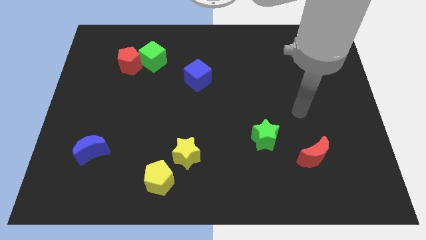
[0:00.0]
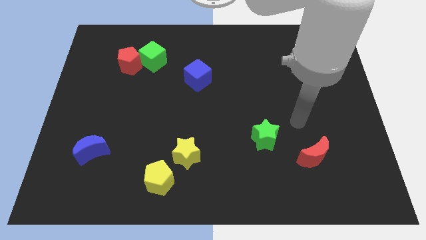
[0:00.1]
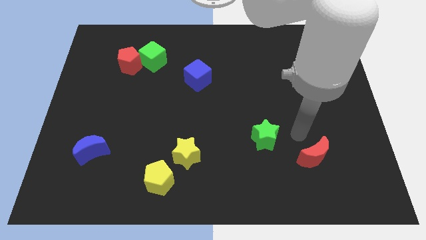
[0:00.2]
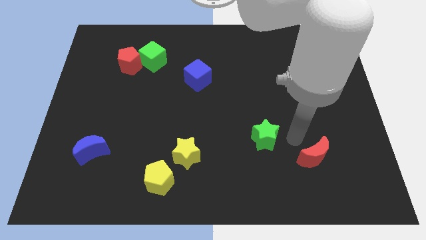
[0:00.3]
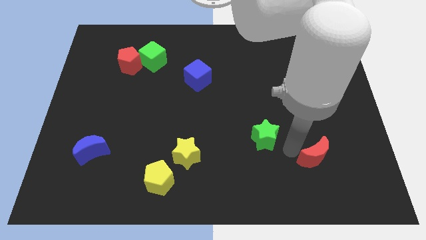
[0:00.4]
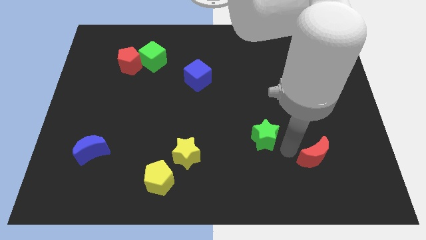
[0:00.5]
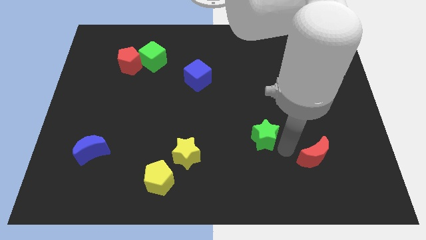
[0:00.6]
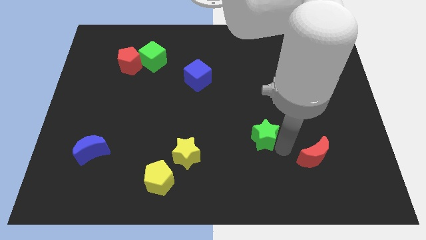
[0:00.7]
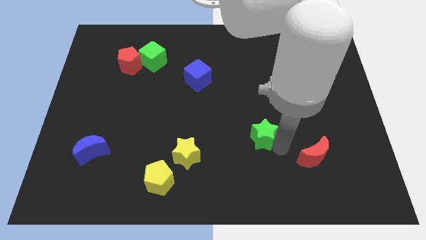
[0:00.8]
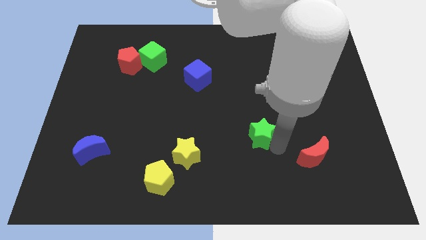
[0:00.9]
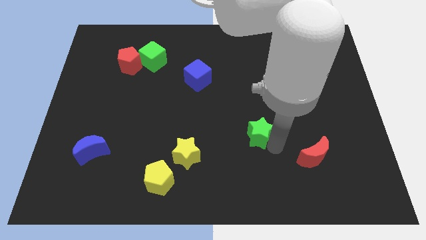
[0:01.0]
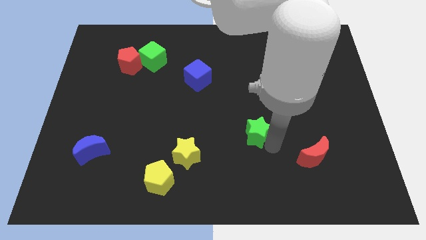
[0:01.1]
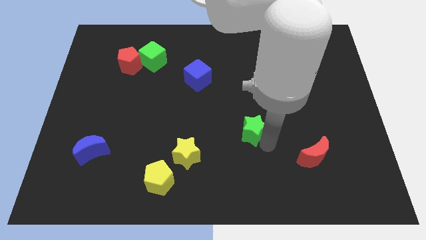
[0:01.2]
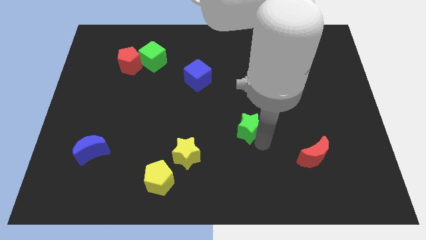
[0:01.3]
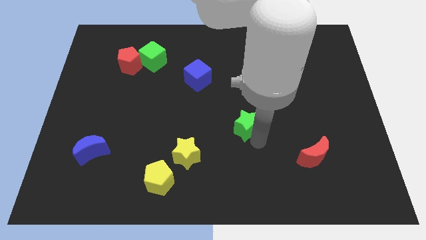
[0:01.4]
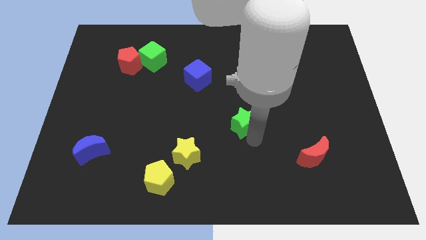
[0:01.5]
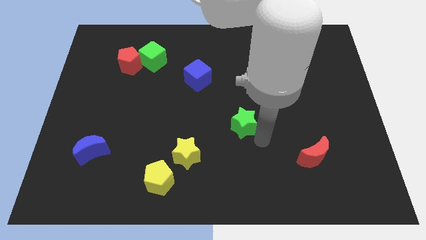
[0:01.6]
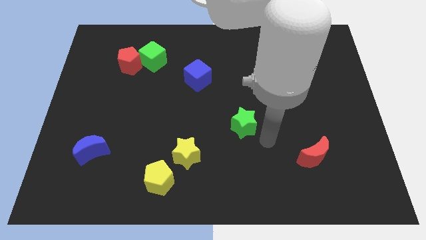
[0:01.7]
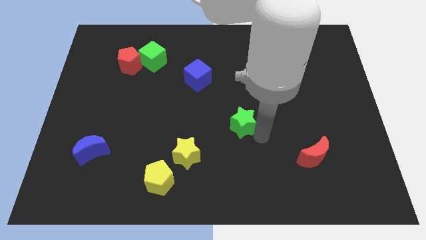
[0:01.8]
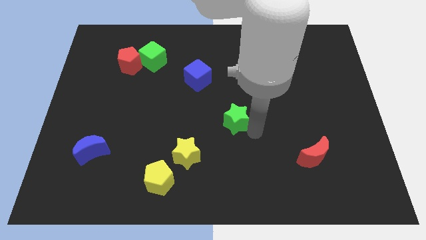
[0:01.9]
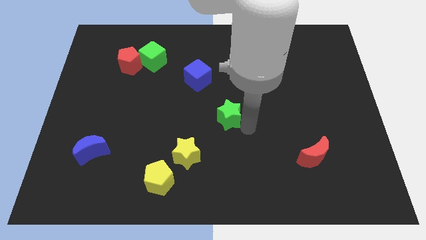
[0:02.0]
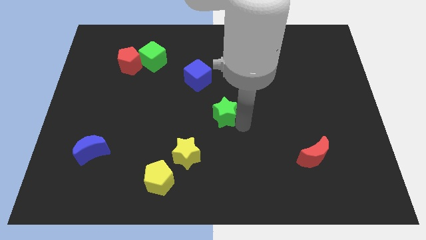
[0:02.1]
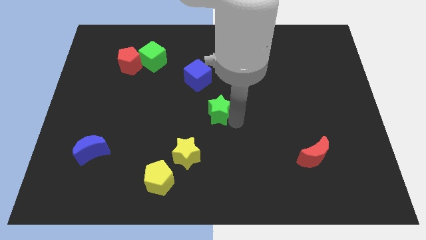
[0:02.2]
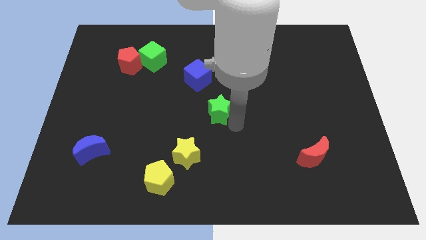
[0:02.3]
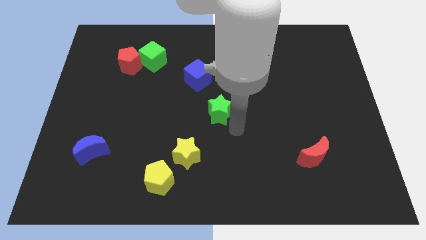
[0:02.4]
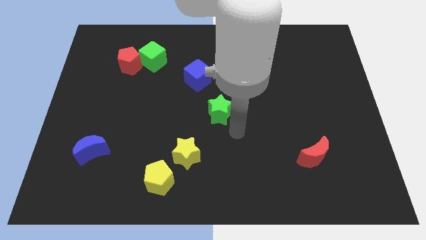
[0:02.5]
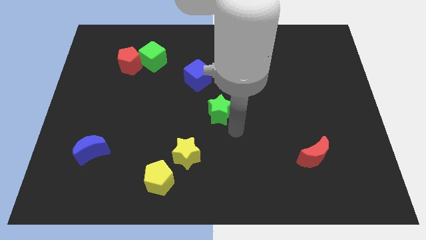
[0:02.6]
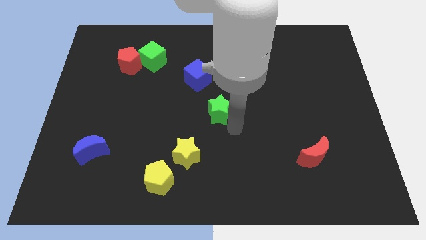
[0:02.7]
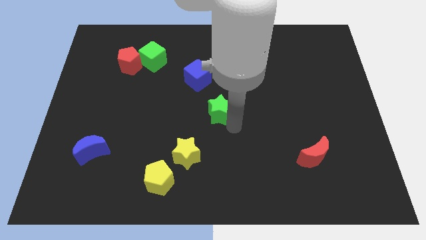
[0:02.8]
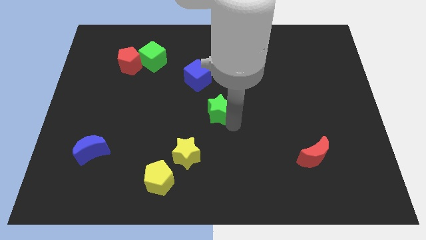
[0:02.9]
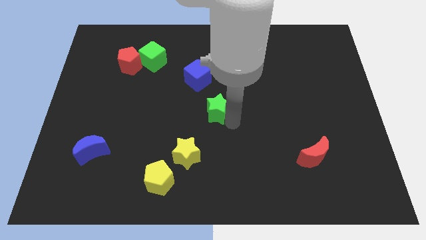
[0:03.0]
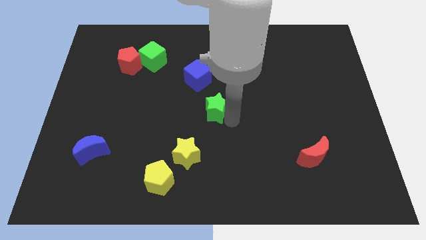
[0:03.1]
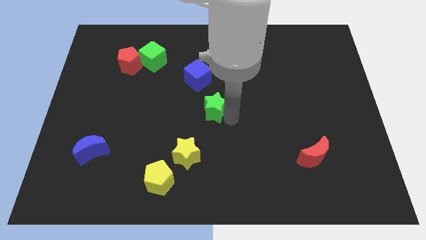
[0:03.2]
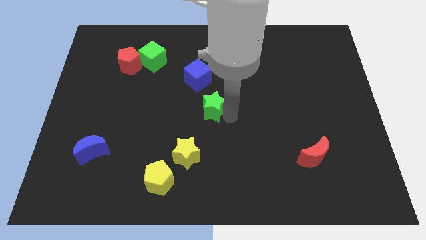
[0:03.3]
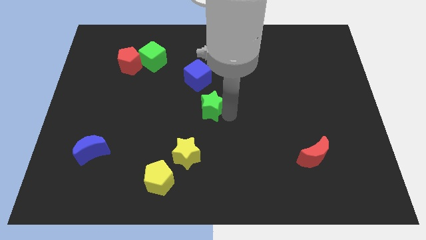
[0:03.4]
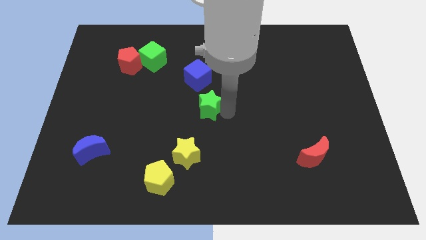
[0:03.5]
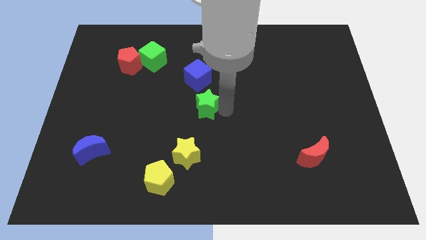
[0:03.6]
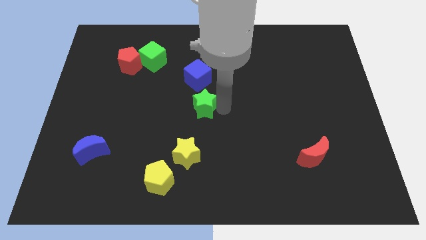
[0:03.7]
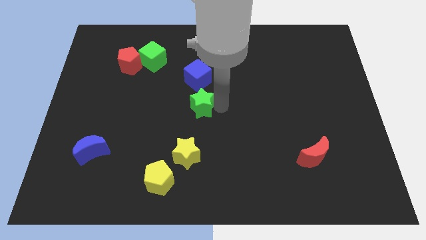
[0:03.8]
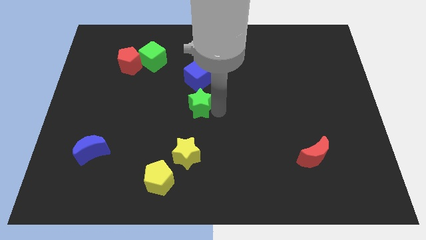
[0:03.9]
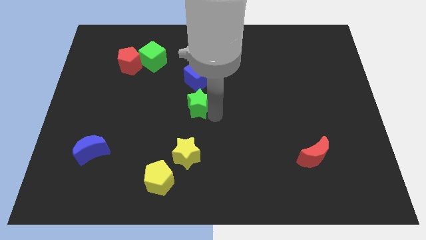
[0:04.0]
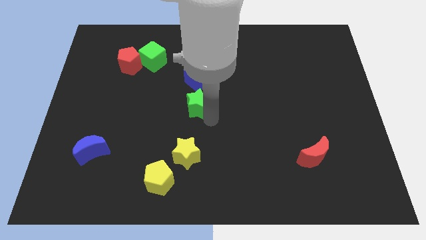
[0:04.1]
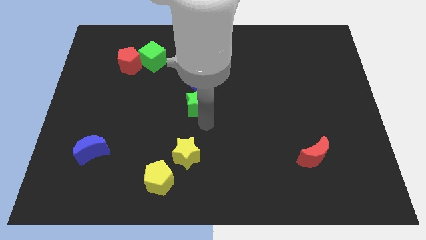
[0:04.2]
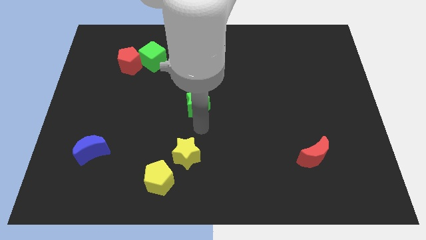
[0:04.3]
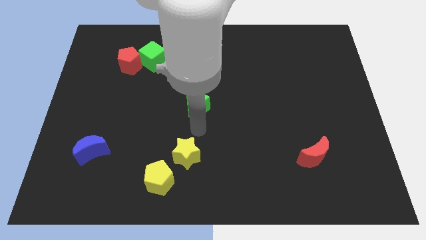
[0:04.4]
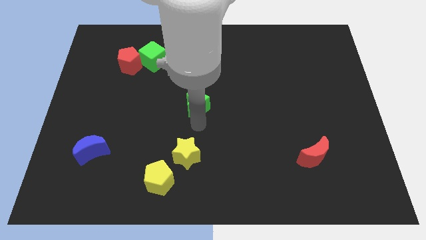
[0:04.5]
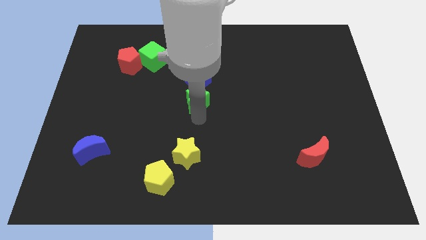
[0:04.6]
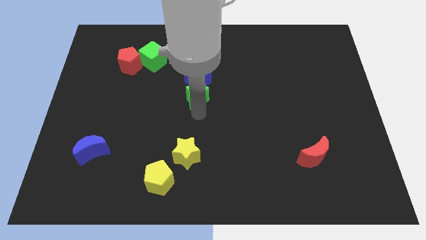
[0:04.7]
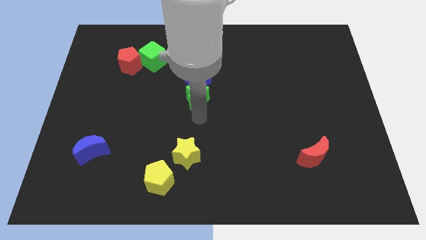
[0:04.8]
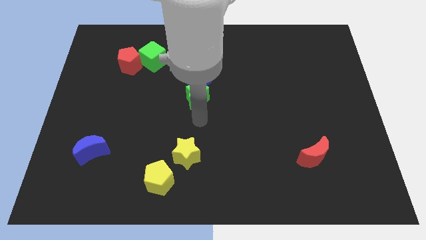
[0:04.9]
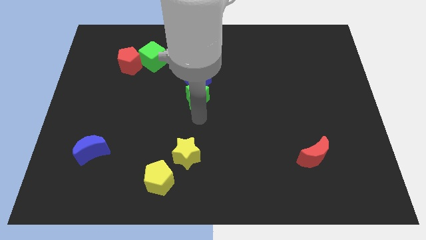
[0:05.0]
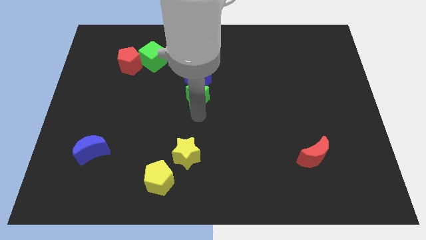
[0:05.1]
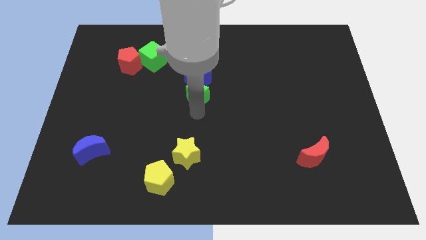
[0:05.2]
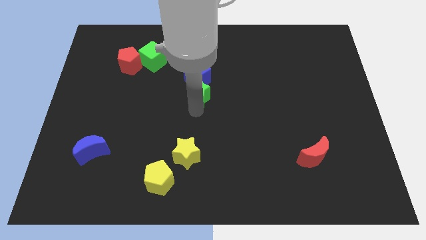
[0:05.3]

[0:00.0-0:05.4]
put the green star next to the blue cube

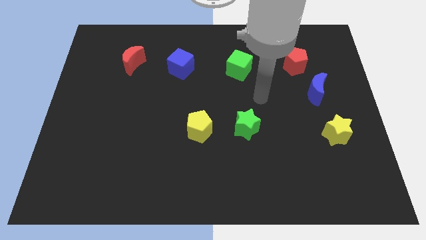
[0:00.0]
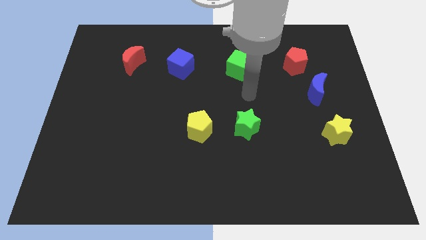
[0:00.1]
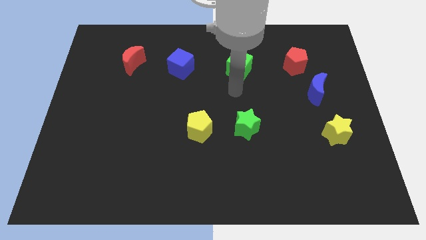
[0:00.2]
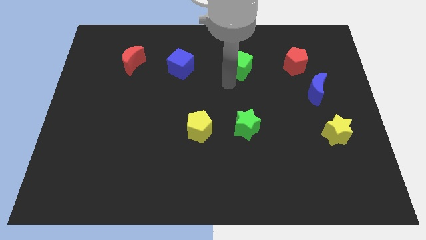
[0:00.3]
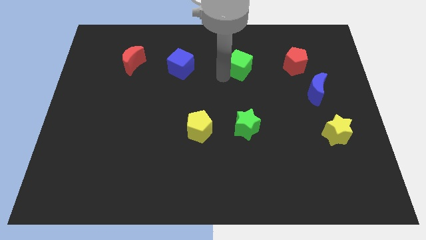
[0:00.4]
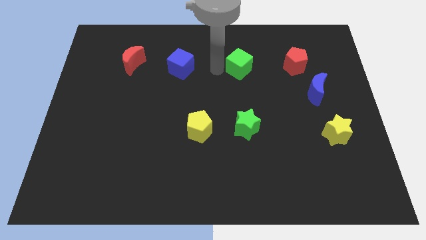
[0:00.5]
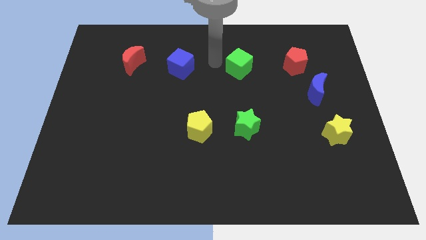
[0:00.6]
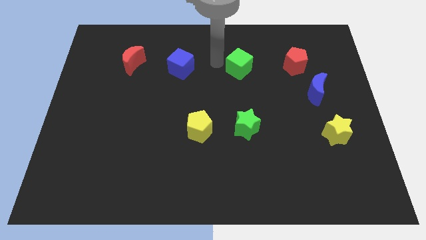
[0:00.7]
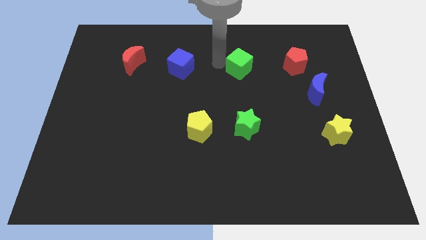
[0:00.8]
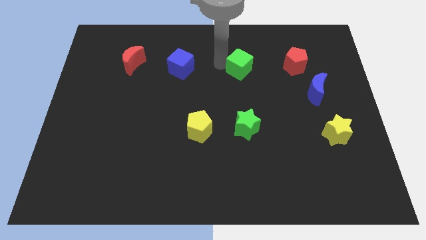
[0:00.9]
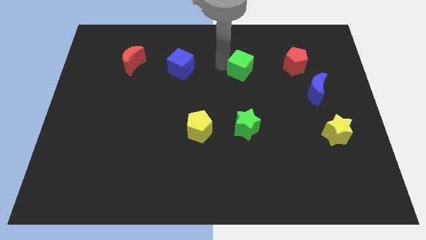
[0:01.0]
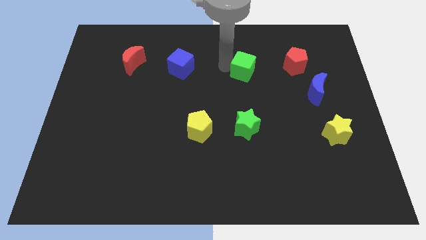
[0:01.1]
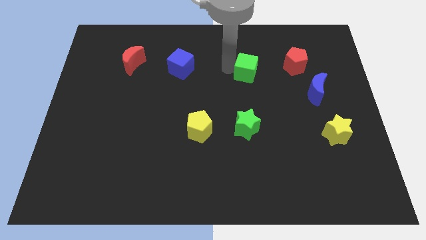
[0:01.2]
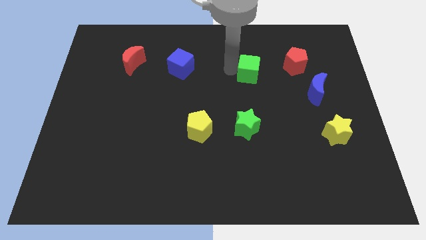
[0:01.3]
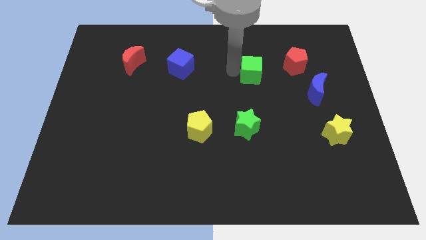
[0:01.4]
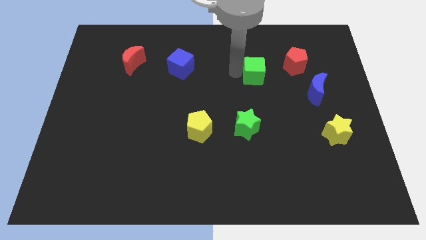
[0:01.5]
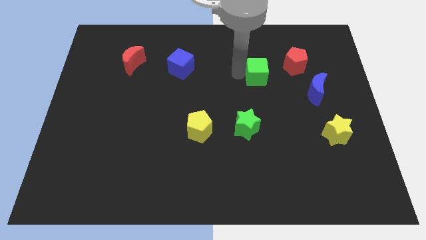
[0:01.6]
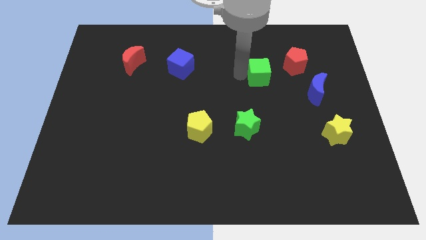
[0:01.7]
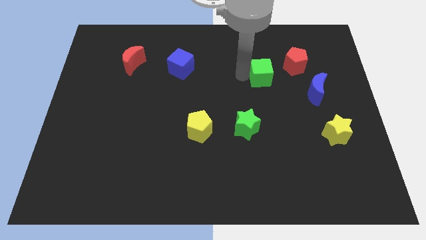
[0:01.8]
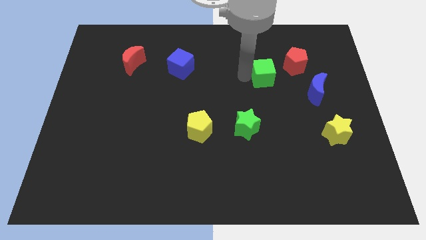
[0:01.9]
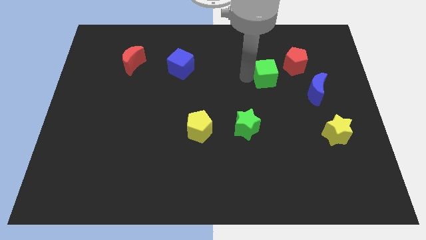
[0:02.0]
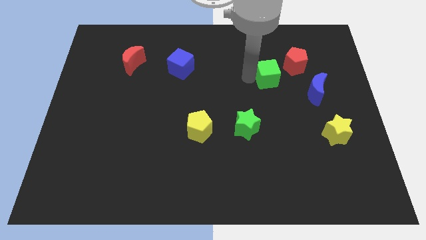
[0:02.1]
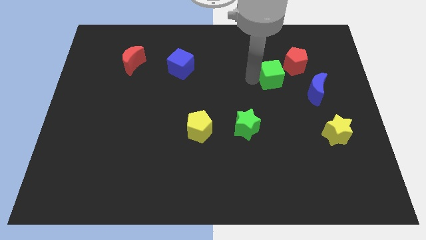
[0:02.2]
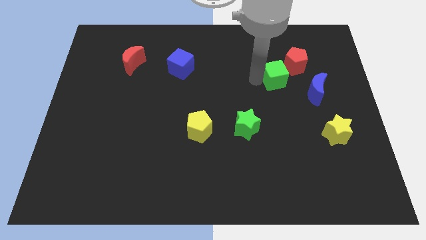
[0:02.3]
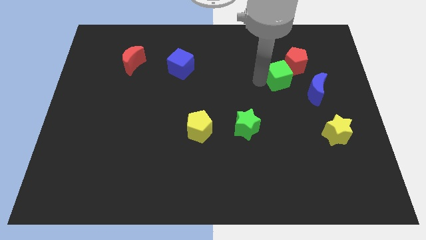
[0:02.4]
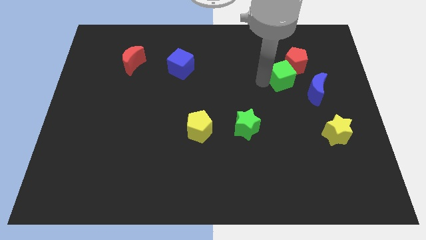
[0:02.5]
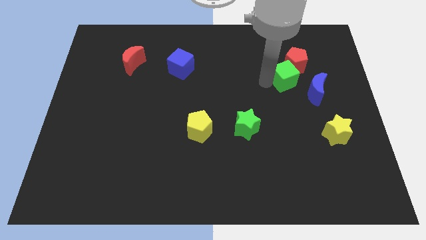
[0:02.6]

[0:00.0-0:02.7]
slide the green cube next to the red pentagon
